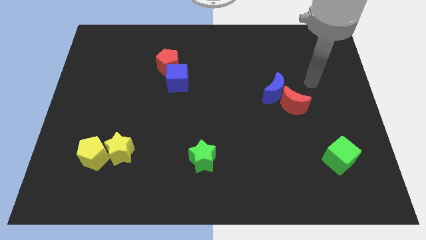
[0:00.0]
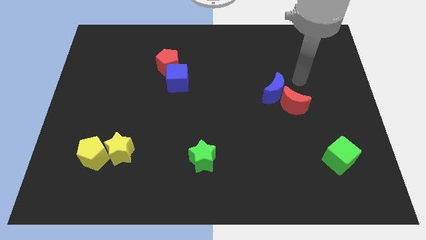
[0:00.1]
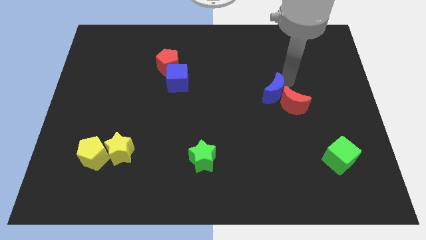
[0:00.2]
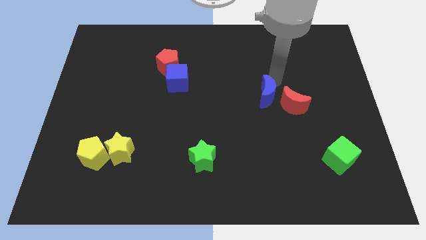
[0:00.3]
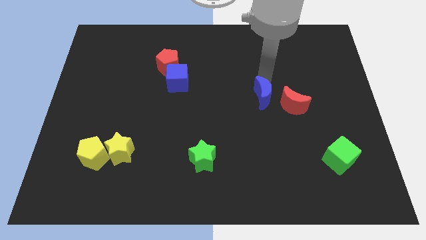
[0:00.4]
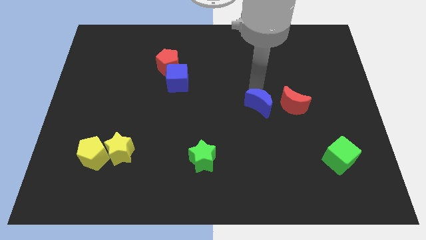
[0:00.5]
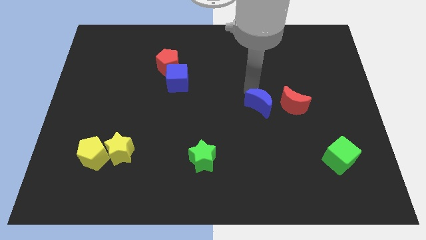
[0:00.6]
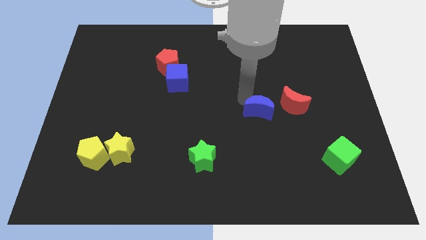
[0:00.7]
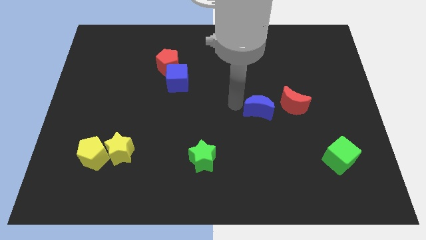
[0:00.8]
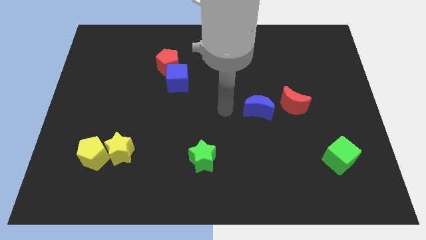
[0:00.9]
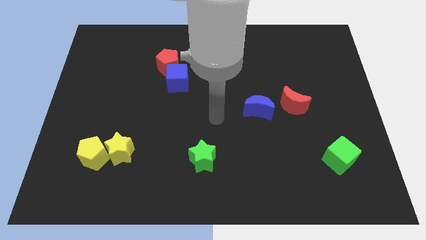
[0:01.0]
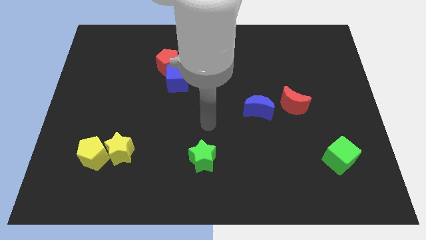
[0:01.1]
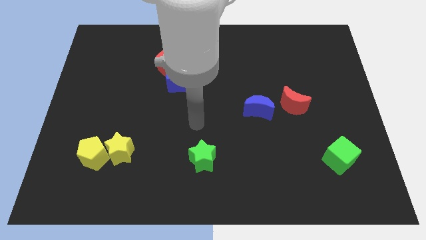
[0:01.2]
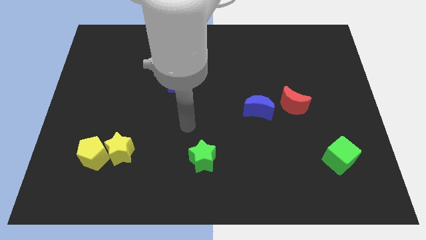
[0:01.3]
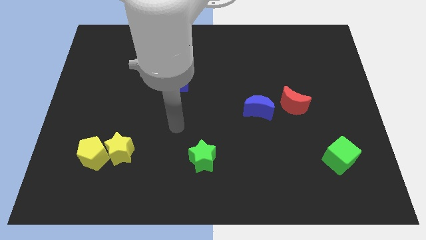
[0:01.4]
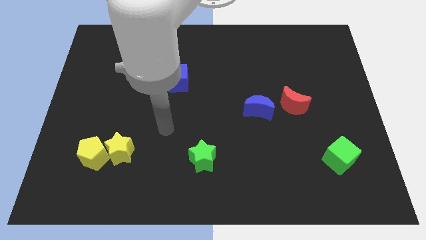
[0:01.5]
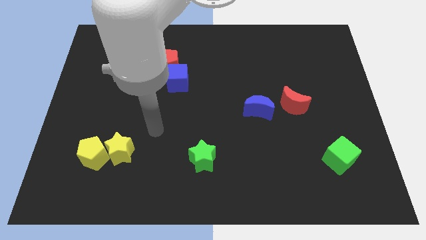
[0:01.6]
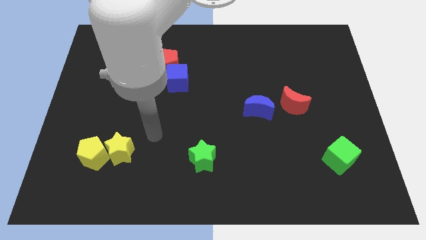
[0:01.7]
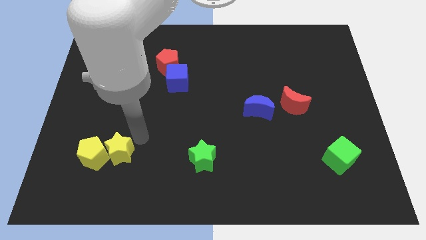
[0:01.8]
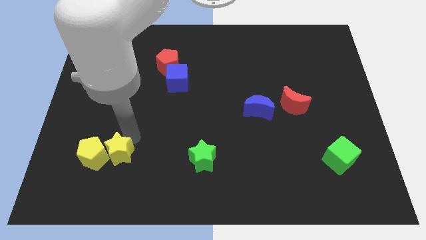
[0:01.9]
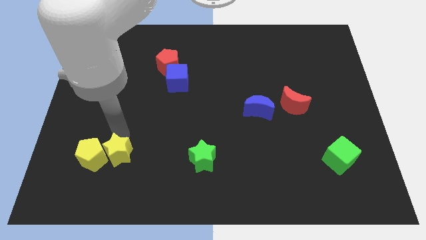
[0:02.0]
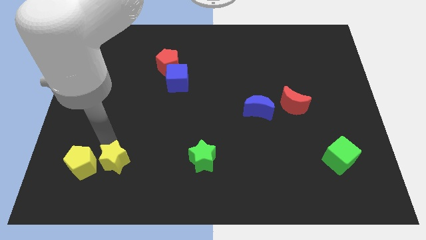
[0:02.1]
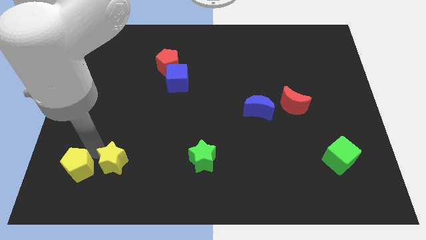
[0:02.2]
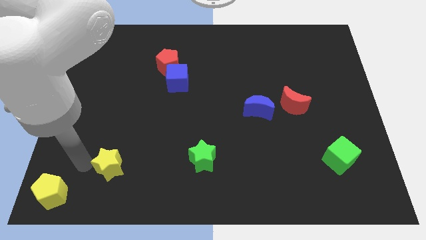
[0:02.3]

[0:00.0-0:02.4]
pull the yellow star apart from the yellow pentagon

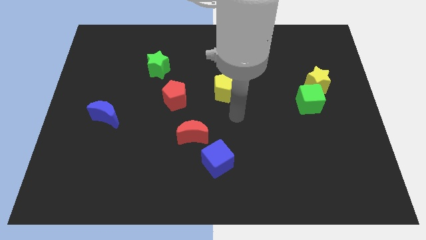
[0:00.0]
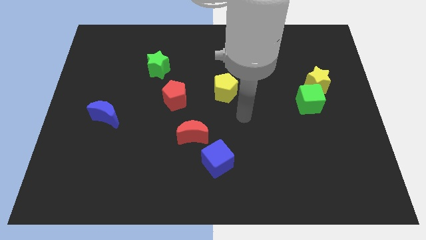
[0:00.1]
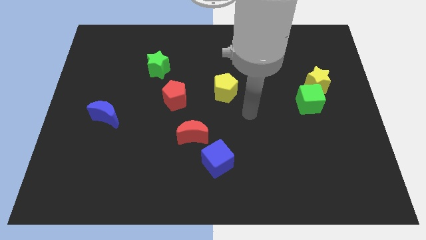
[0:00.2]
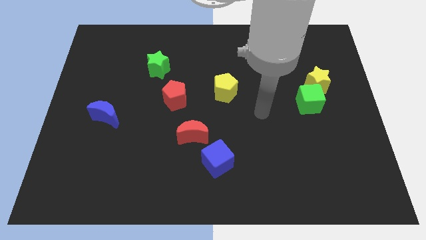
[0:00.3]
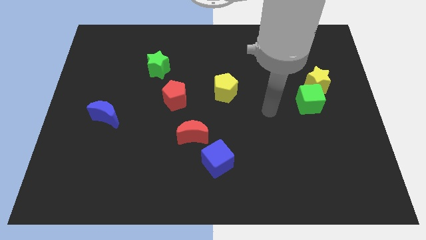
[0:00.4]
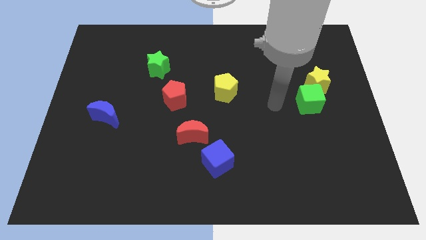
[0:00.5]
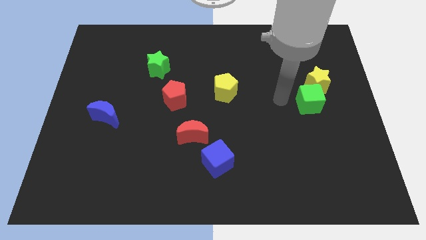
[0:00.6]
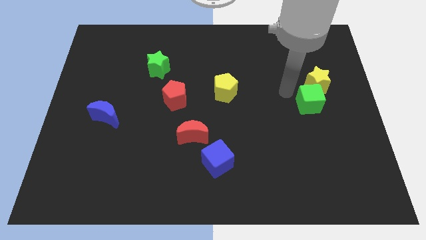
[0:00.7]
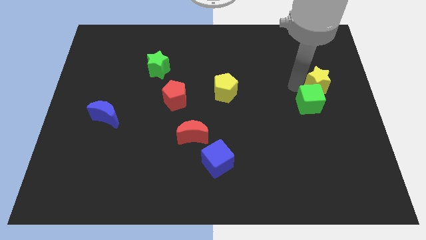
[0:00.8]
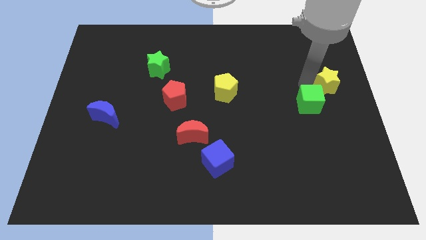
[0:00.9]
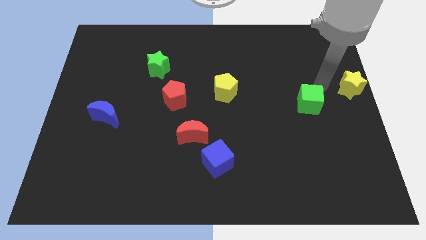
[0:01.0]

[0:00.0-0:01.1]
pull the green cube apart from the yellow star

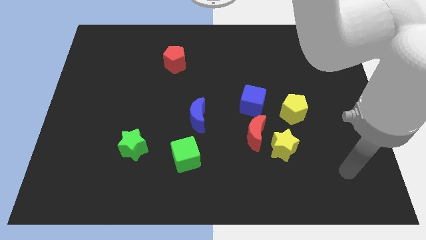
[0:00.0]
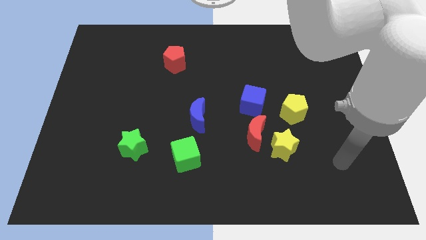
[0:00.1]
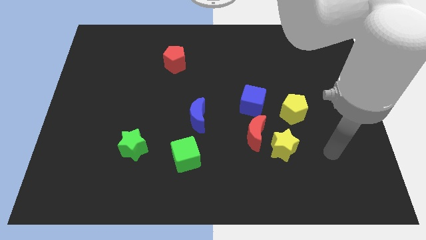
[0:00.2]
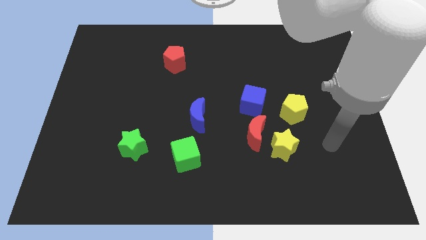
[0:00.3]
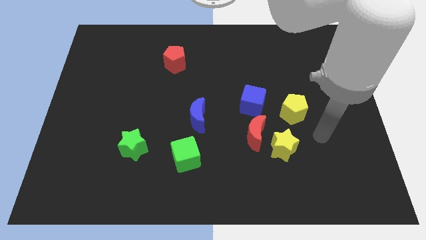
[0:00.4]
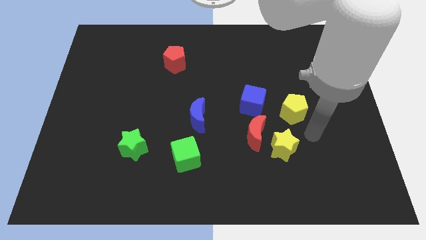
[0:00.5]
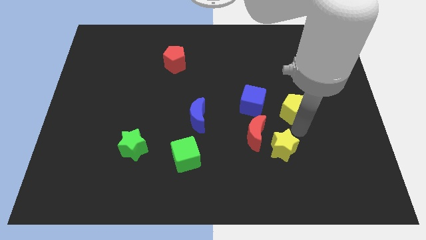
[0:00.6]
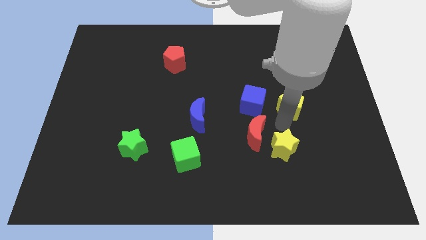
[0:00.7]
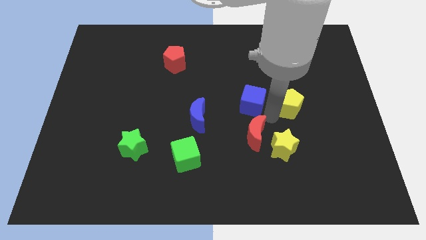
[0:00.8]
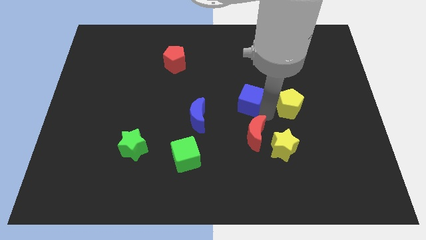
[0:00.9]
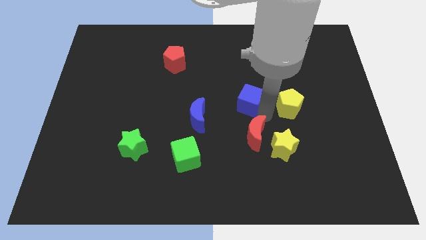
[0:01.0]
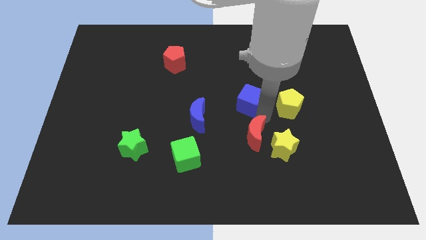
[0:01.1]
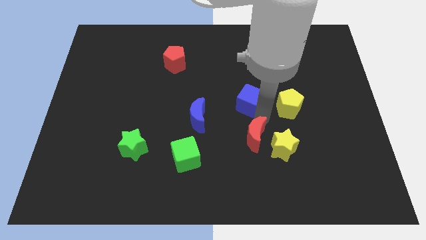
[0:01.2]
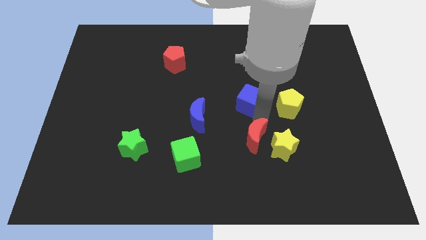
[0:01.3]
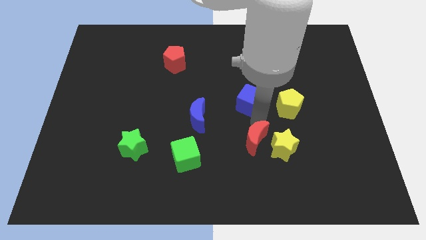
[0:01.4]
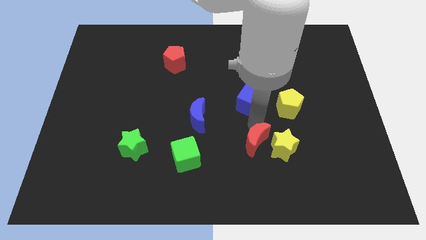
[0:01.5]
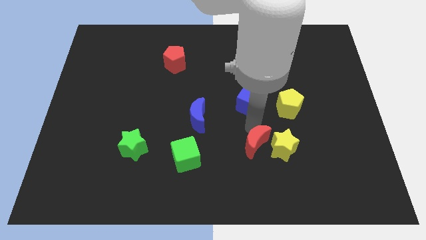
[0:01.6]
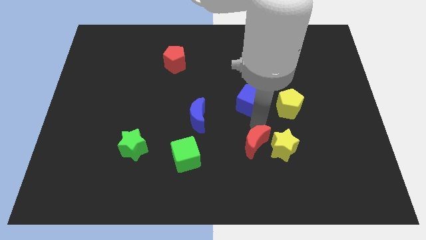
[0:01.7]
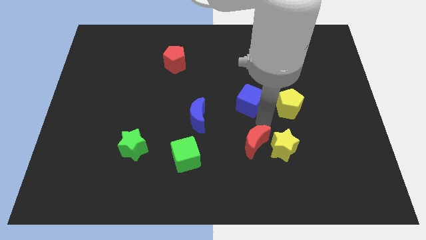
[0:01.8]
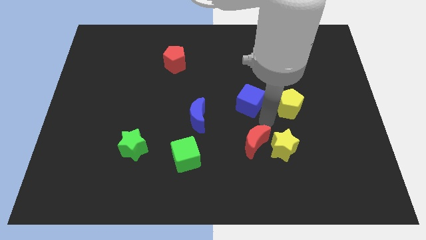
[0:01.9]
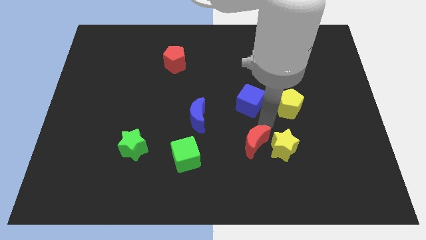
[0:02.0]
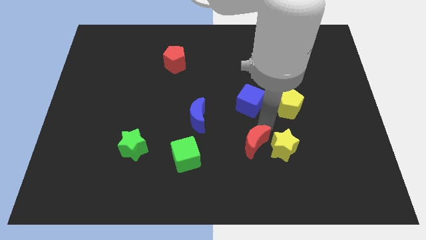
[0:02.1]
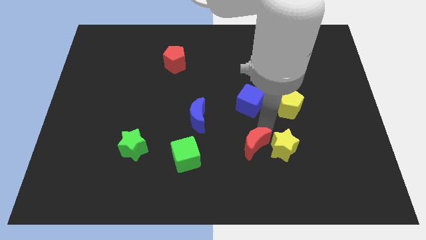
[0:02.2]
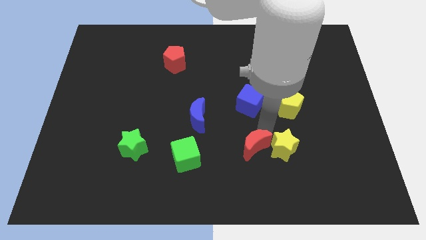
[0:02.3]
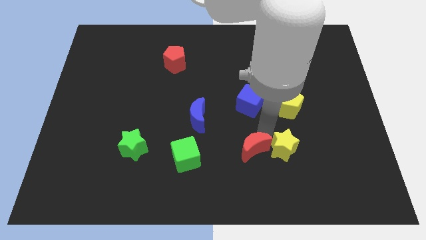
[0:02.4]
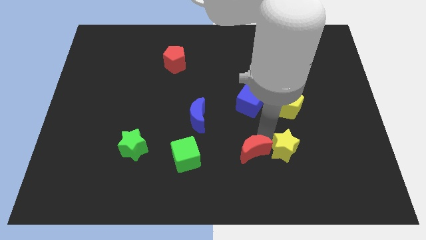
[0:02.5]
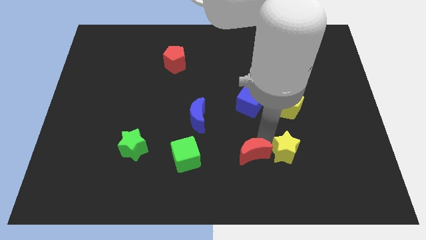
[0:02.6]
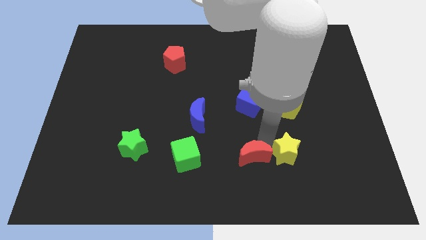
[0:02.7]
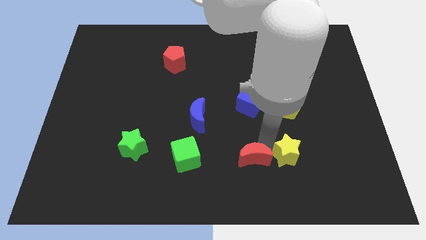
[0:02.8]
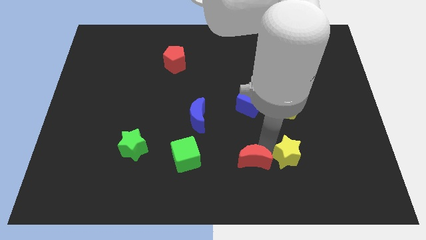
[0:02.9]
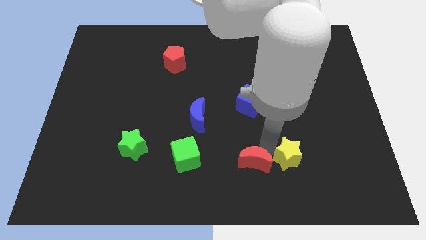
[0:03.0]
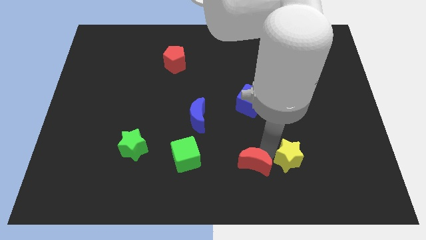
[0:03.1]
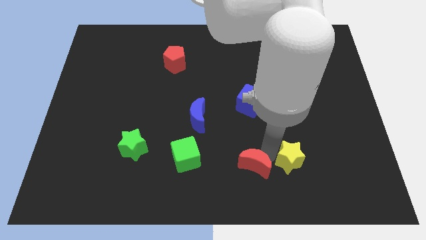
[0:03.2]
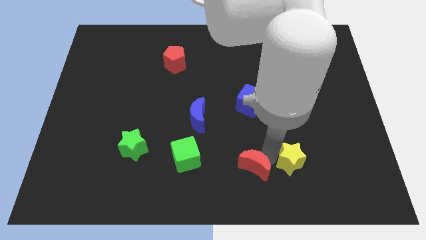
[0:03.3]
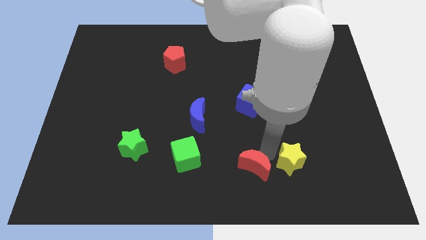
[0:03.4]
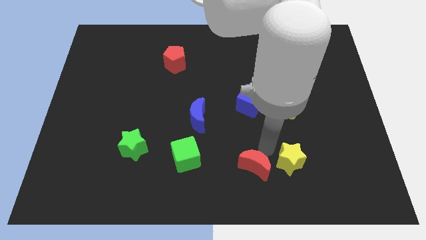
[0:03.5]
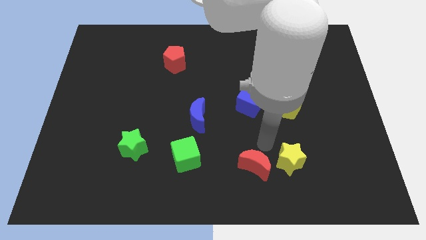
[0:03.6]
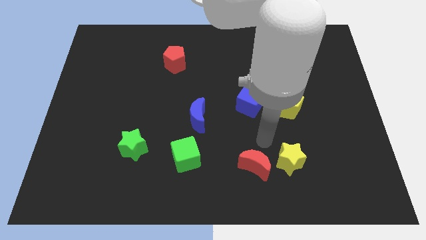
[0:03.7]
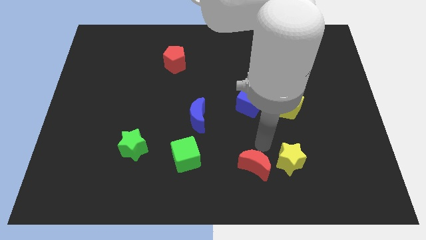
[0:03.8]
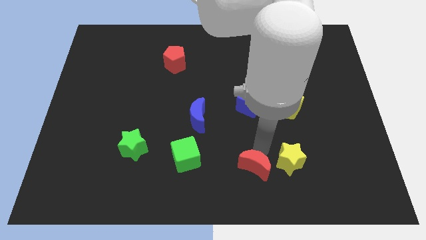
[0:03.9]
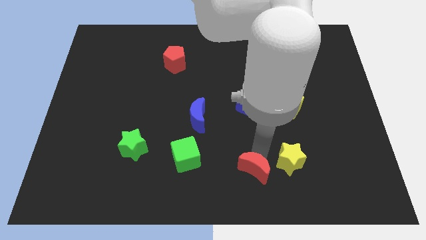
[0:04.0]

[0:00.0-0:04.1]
move the red moon away from the yellow star and blue cube

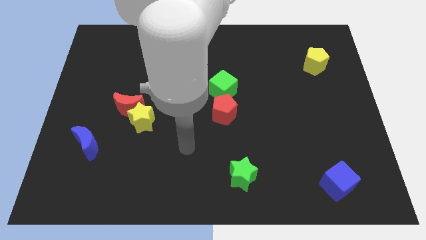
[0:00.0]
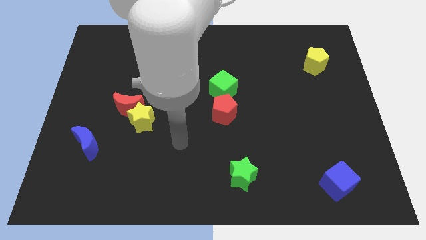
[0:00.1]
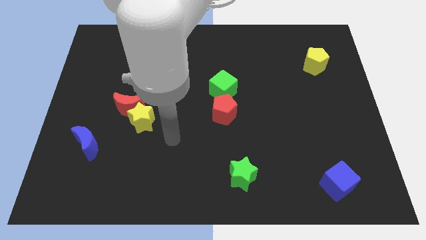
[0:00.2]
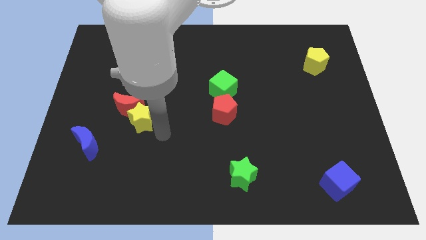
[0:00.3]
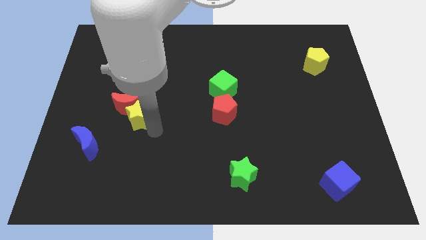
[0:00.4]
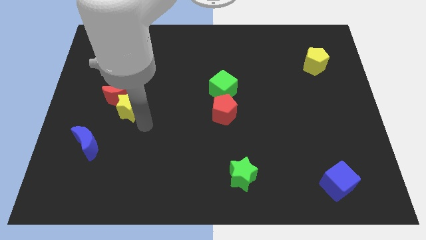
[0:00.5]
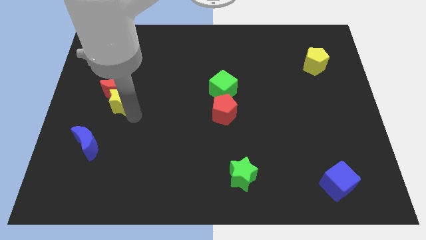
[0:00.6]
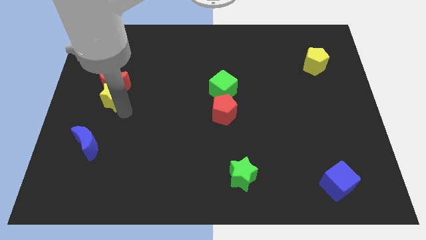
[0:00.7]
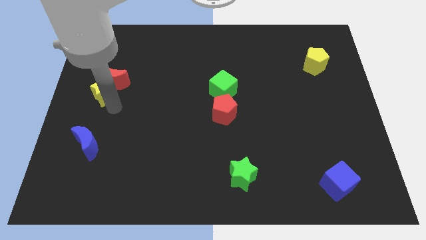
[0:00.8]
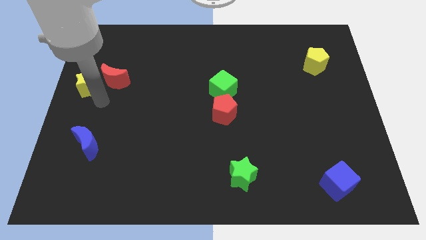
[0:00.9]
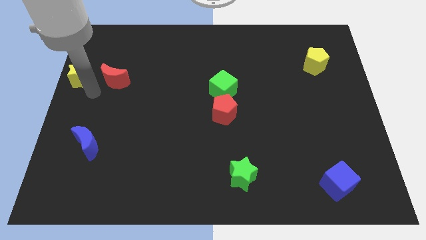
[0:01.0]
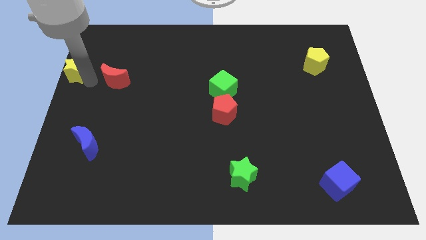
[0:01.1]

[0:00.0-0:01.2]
move the red moon away from the yellow star

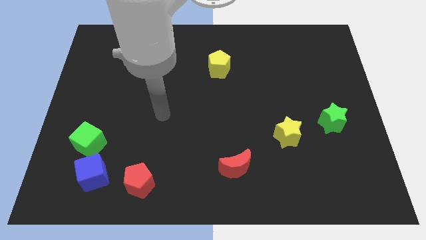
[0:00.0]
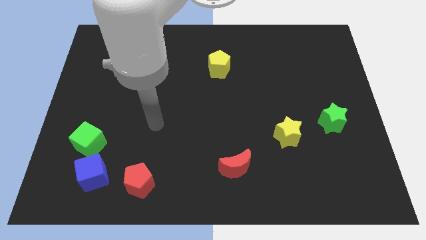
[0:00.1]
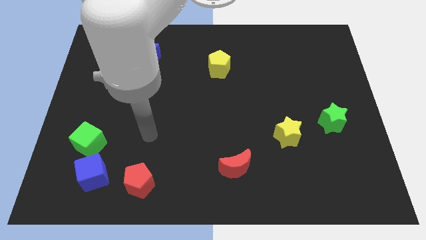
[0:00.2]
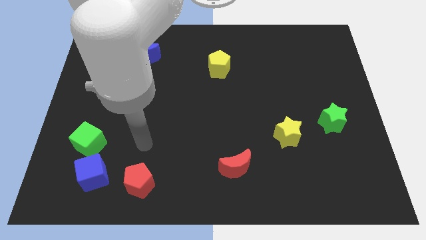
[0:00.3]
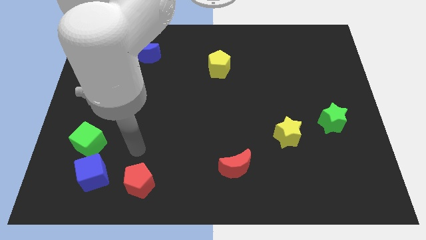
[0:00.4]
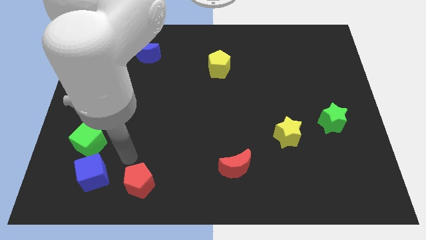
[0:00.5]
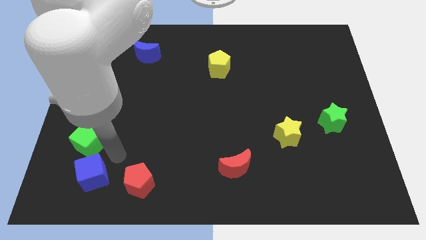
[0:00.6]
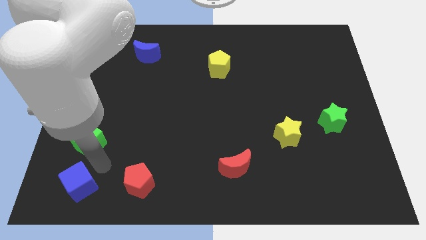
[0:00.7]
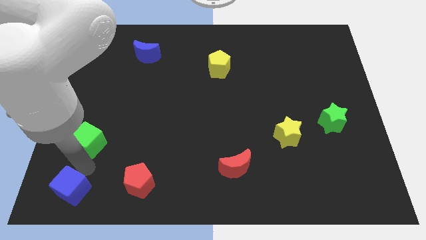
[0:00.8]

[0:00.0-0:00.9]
pull the green cube apart from the blue cube
